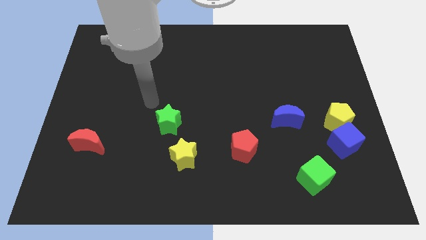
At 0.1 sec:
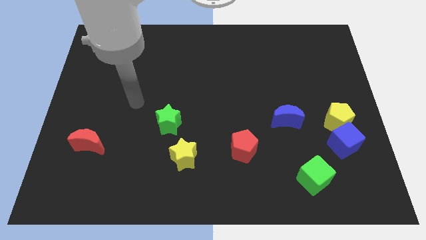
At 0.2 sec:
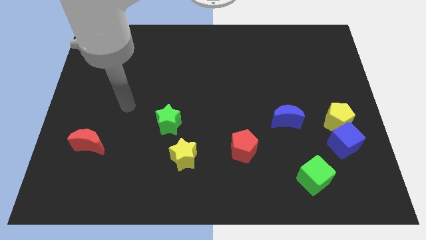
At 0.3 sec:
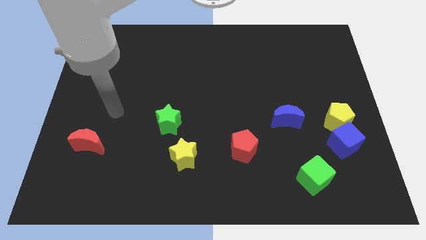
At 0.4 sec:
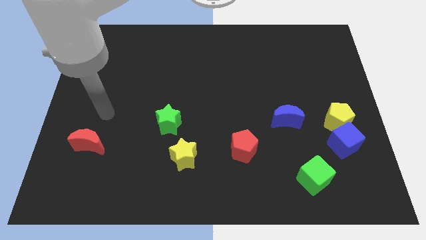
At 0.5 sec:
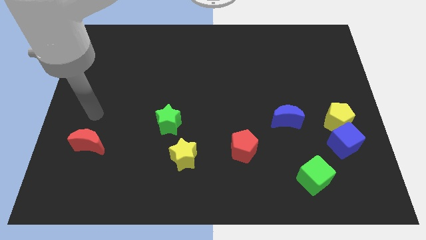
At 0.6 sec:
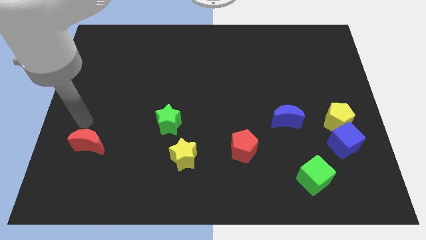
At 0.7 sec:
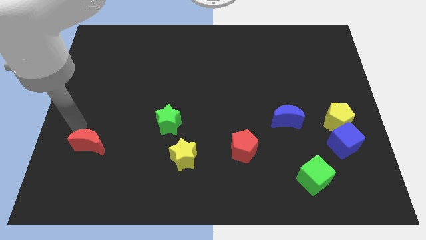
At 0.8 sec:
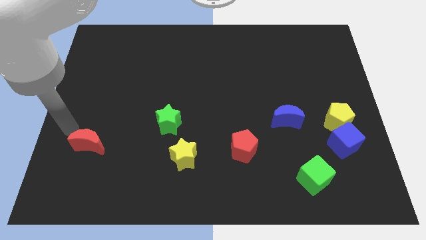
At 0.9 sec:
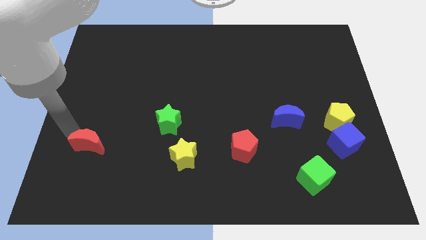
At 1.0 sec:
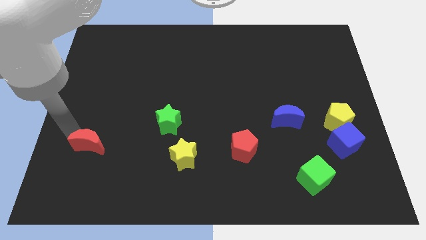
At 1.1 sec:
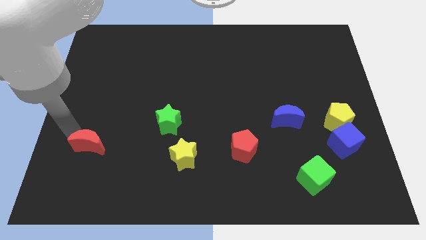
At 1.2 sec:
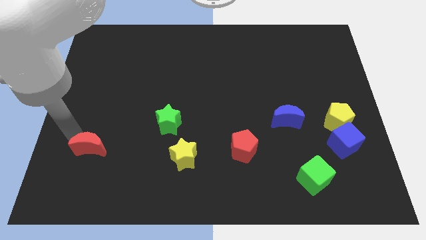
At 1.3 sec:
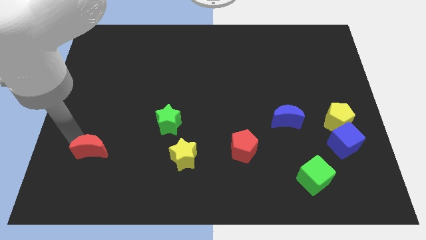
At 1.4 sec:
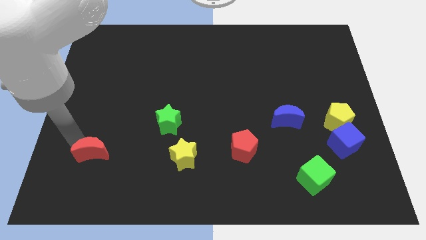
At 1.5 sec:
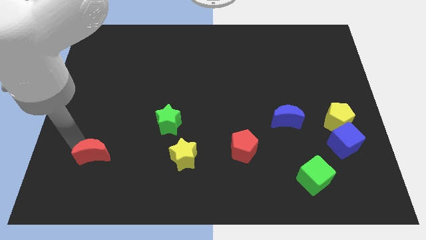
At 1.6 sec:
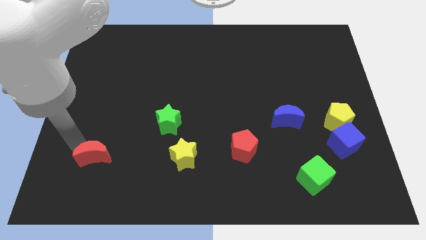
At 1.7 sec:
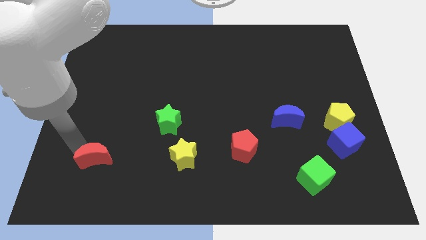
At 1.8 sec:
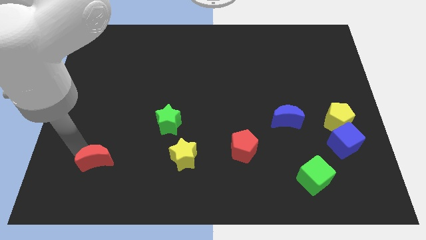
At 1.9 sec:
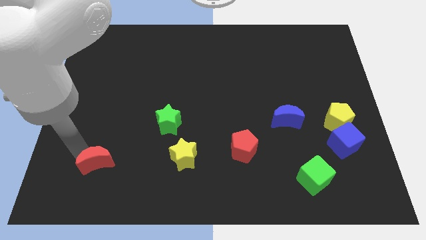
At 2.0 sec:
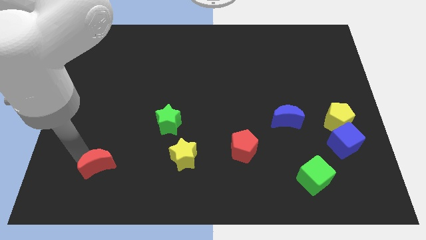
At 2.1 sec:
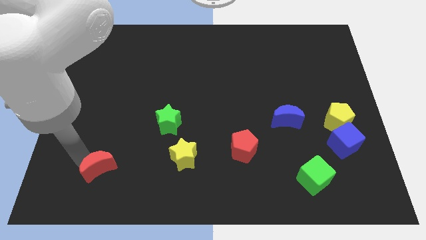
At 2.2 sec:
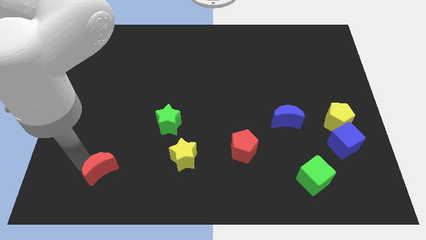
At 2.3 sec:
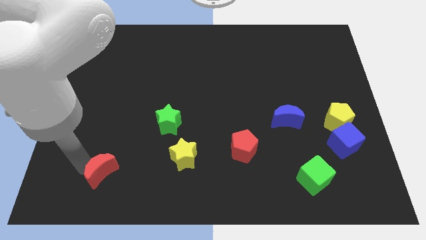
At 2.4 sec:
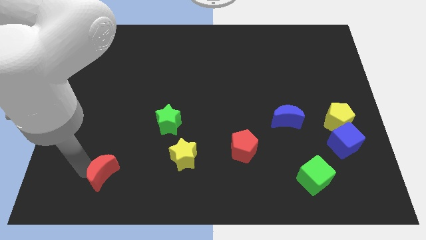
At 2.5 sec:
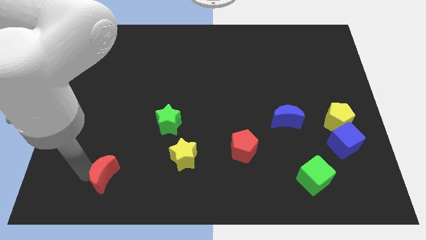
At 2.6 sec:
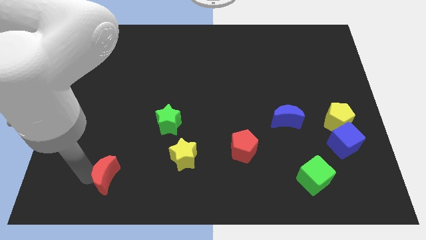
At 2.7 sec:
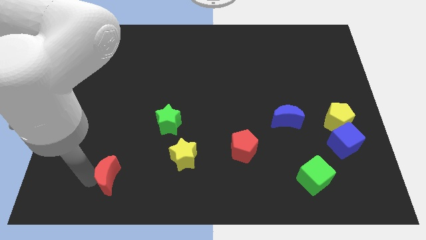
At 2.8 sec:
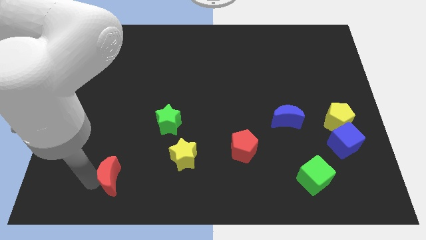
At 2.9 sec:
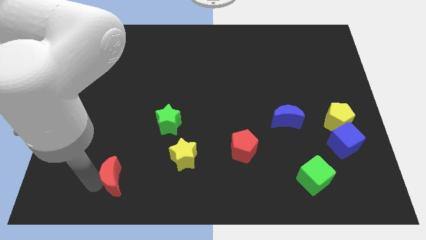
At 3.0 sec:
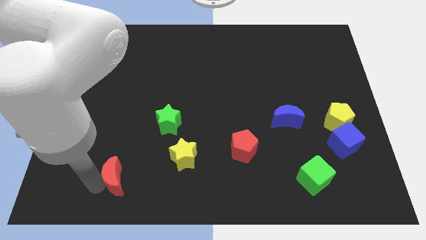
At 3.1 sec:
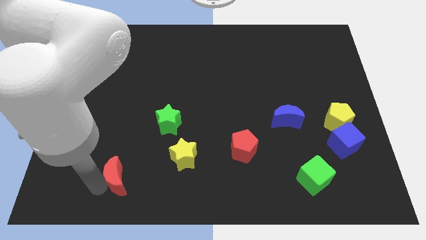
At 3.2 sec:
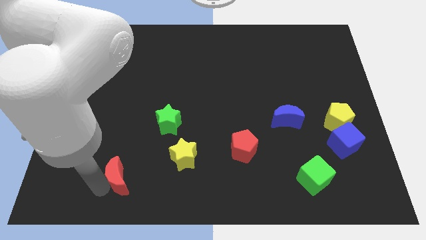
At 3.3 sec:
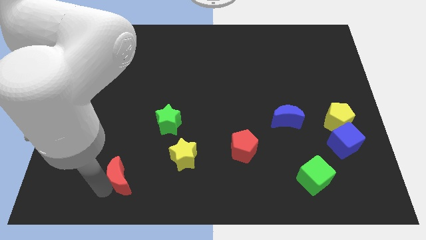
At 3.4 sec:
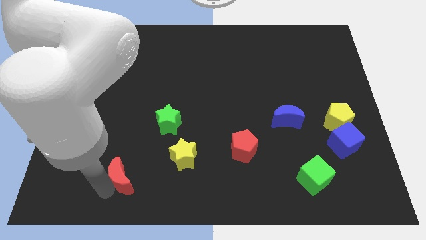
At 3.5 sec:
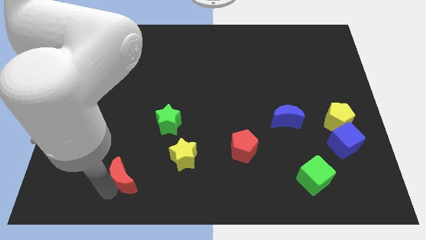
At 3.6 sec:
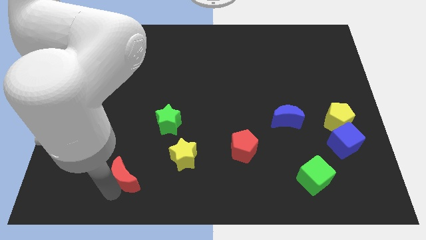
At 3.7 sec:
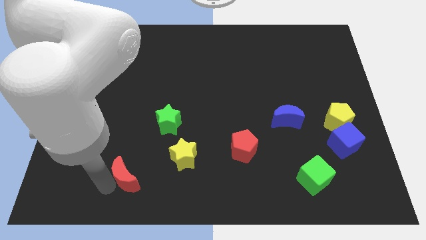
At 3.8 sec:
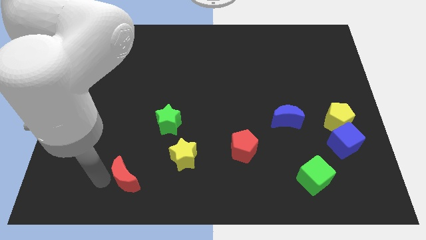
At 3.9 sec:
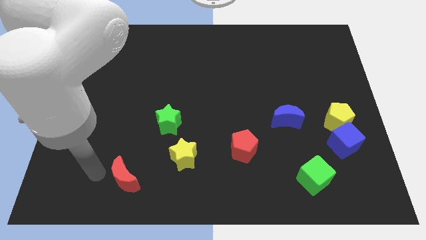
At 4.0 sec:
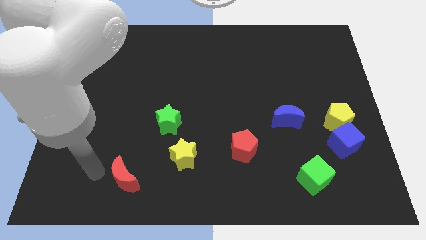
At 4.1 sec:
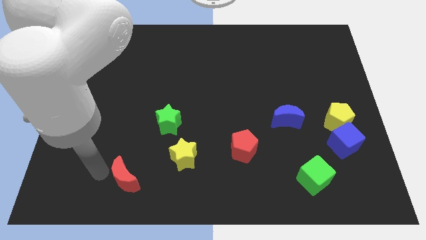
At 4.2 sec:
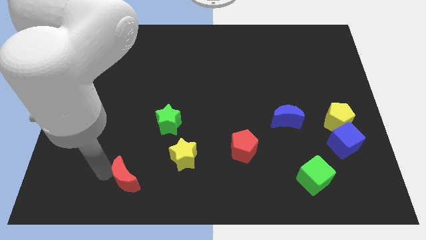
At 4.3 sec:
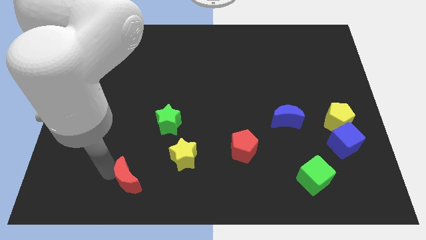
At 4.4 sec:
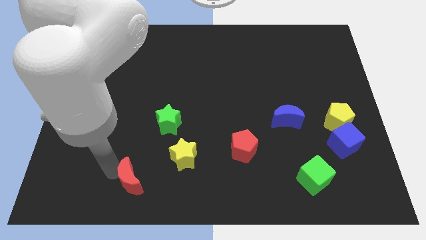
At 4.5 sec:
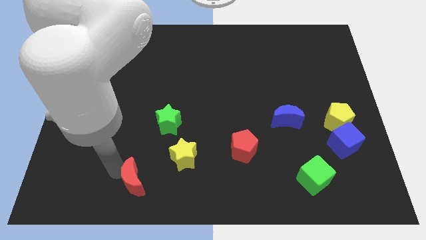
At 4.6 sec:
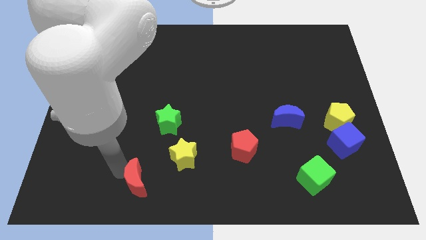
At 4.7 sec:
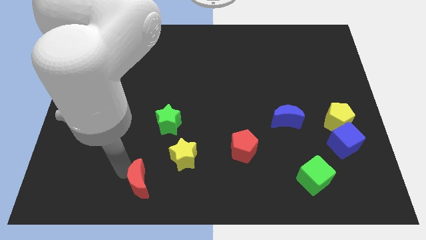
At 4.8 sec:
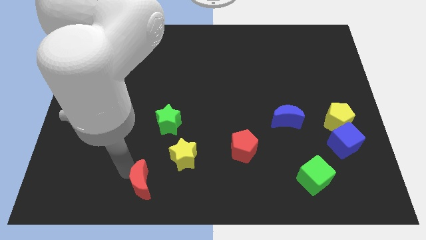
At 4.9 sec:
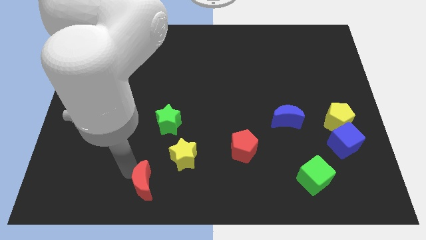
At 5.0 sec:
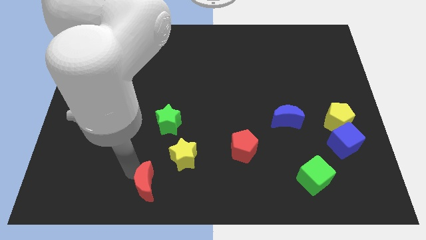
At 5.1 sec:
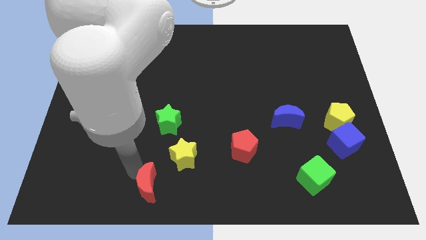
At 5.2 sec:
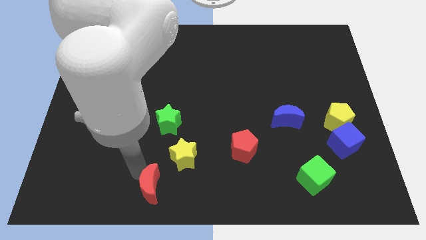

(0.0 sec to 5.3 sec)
push the red moon to the bottom side

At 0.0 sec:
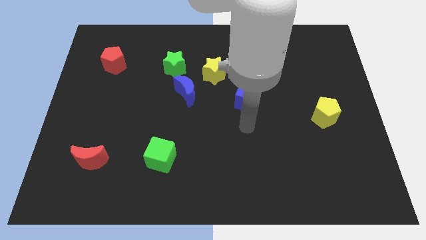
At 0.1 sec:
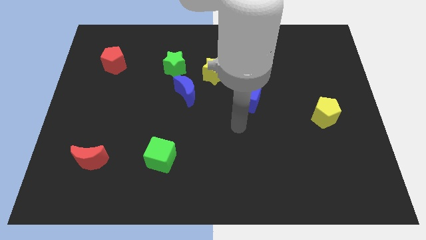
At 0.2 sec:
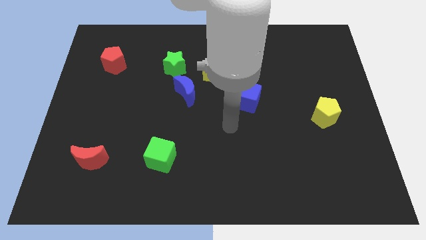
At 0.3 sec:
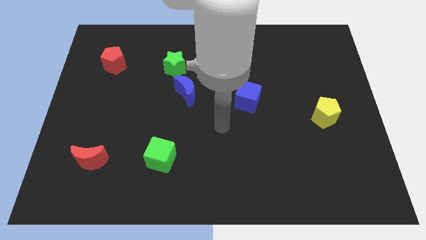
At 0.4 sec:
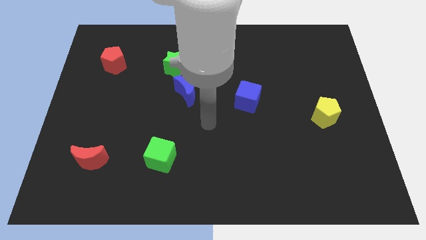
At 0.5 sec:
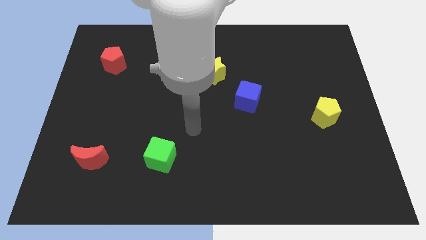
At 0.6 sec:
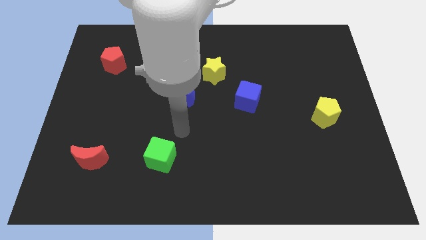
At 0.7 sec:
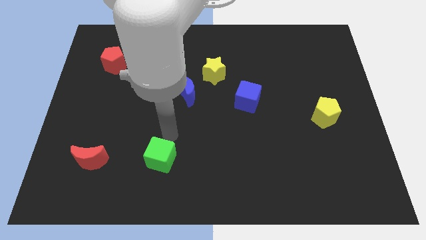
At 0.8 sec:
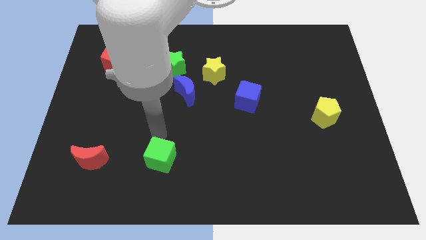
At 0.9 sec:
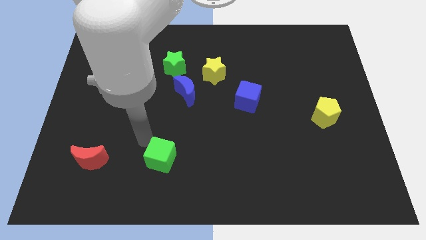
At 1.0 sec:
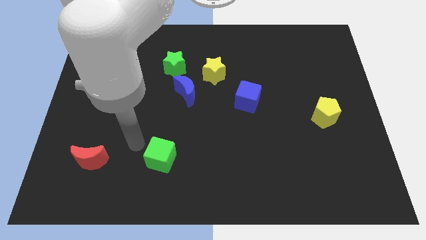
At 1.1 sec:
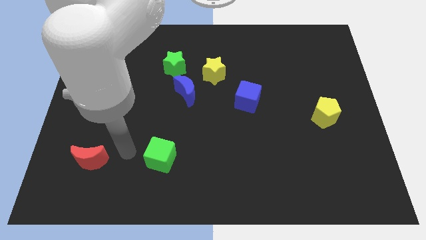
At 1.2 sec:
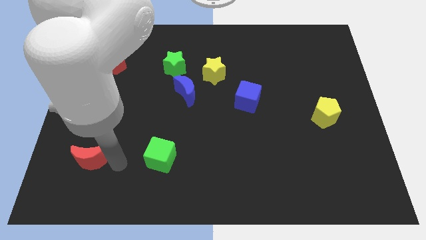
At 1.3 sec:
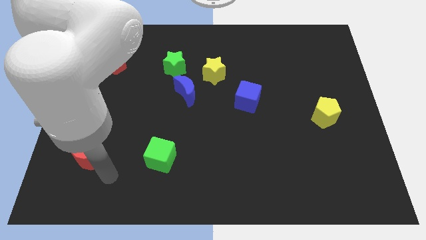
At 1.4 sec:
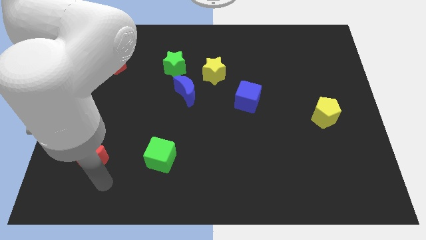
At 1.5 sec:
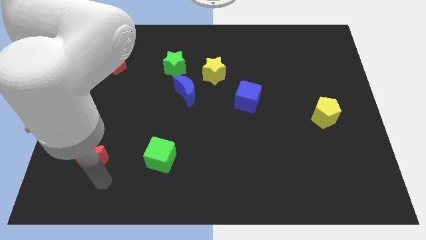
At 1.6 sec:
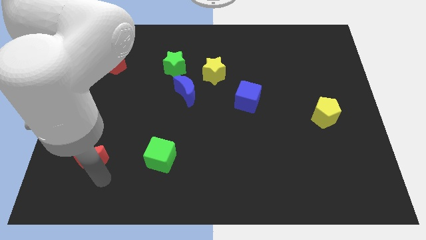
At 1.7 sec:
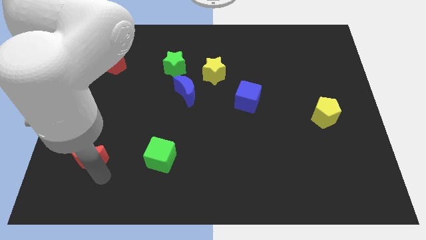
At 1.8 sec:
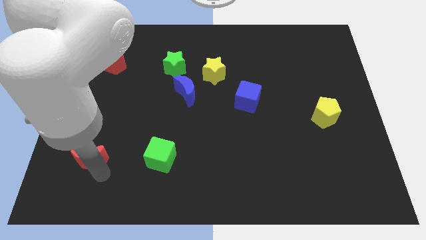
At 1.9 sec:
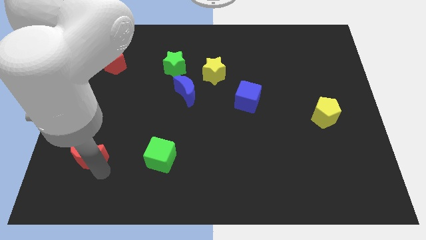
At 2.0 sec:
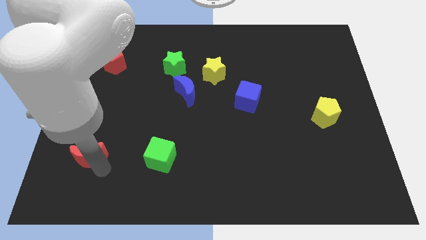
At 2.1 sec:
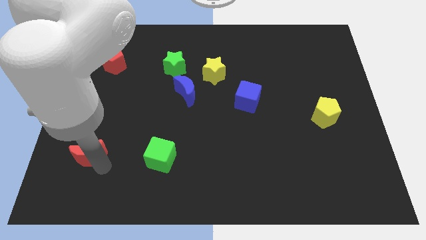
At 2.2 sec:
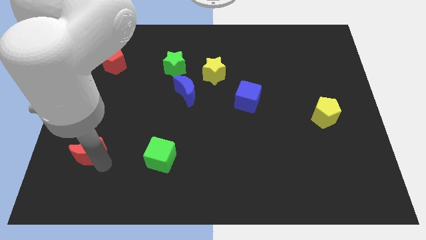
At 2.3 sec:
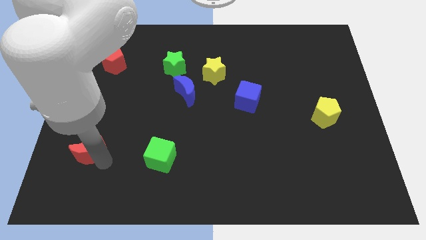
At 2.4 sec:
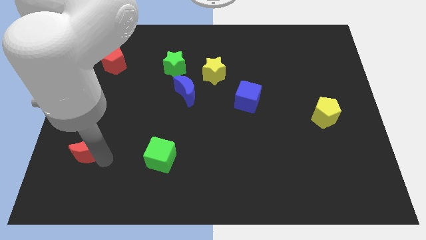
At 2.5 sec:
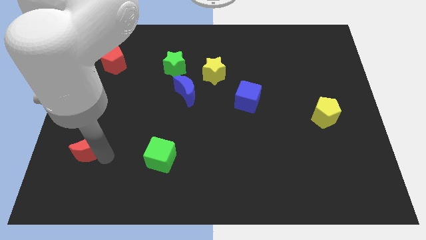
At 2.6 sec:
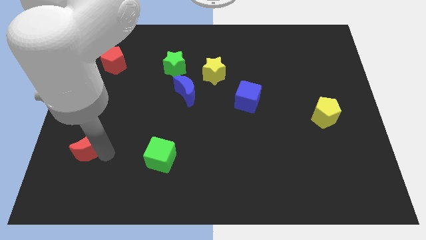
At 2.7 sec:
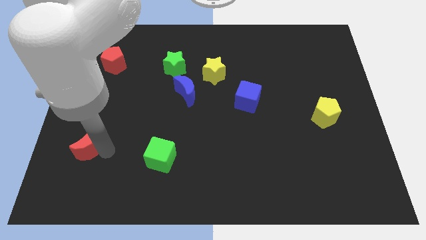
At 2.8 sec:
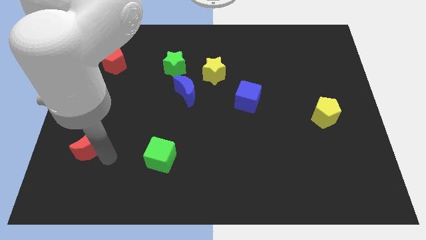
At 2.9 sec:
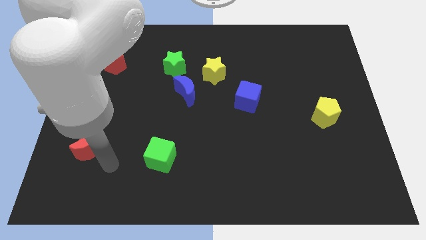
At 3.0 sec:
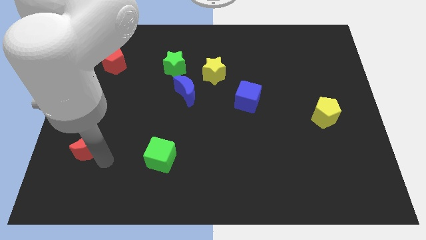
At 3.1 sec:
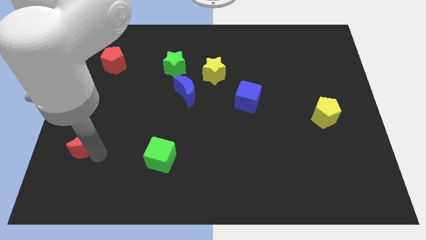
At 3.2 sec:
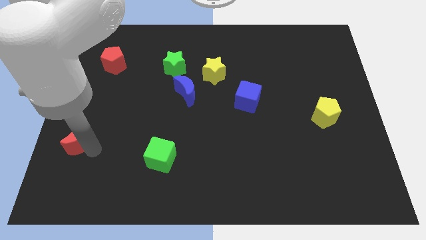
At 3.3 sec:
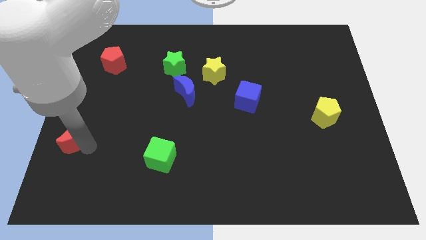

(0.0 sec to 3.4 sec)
slide the red moon to the center left
